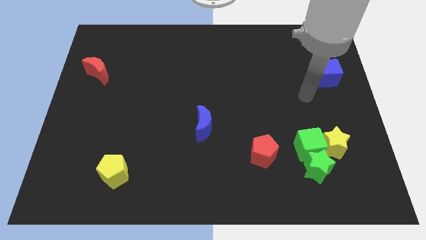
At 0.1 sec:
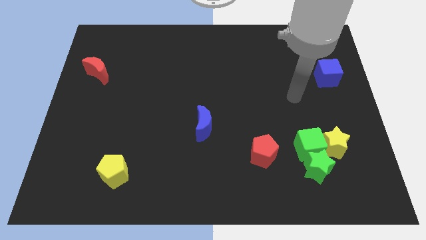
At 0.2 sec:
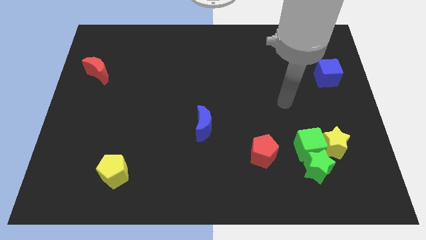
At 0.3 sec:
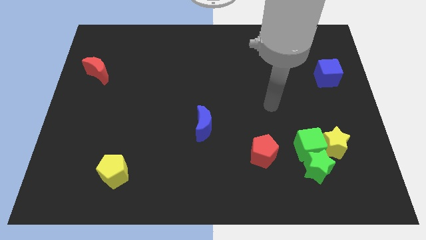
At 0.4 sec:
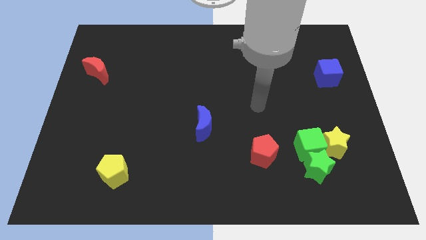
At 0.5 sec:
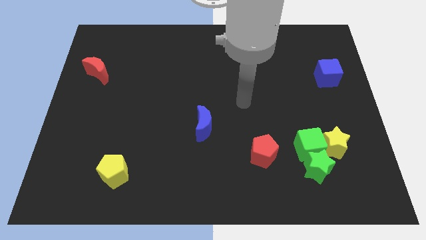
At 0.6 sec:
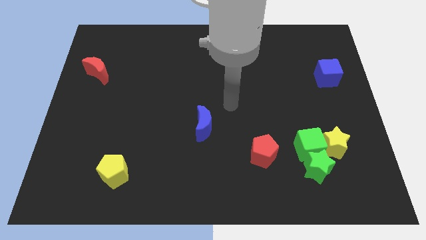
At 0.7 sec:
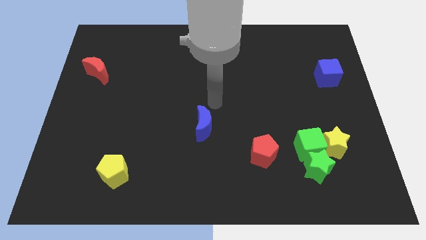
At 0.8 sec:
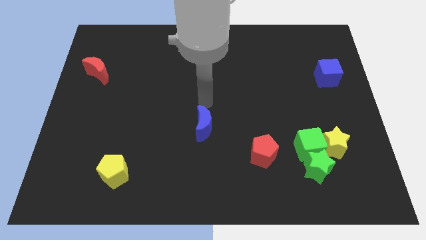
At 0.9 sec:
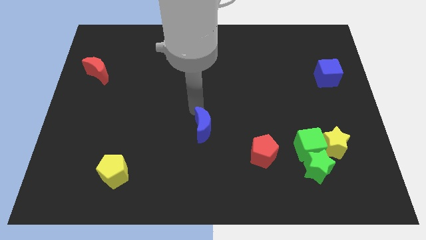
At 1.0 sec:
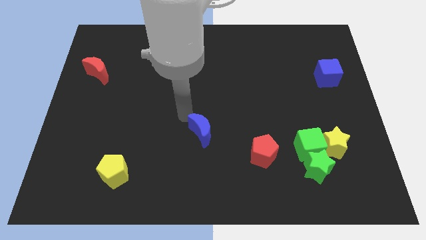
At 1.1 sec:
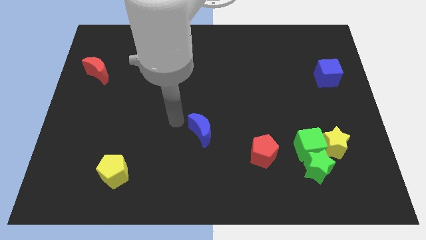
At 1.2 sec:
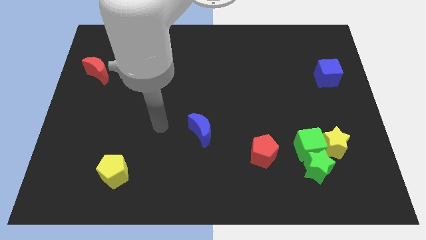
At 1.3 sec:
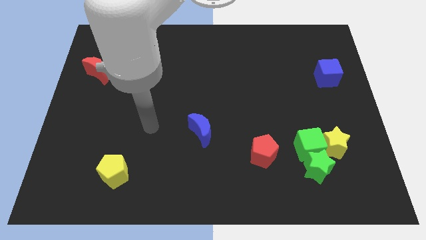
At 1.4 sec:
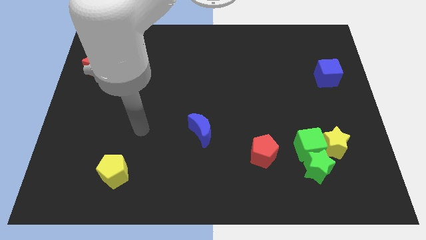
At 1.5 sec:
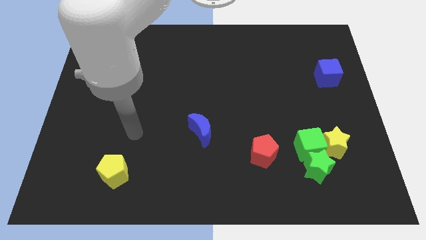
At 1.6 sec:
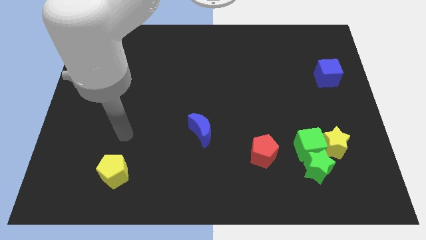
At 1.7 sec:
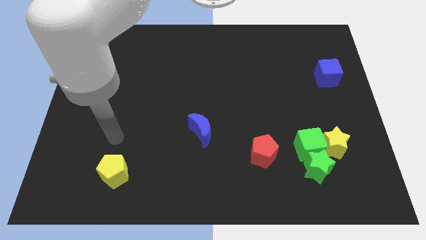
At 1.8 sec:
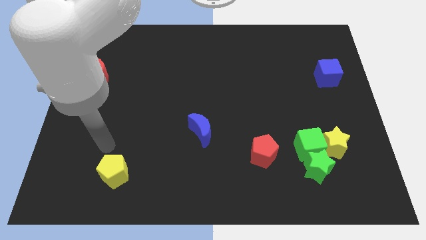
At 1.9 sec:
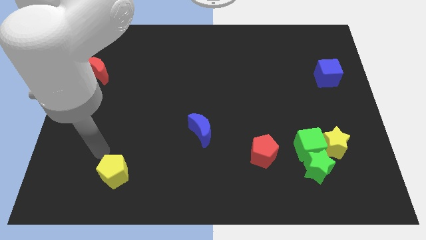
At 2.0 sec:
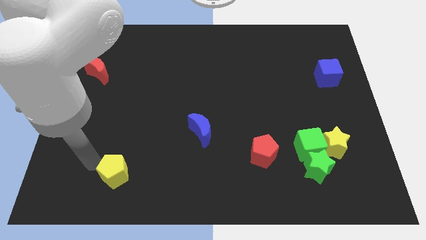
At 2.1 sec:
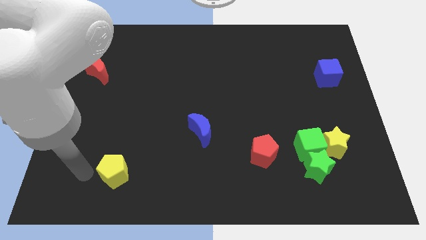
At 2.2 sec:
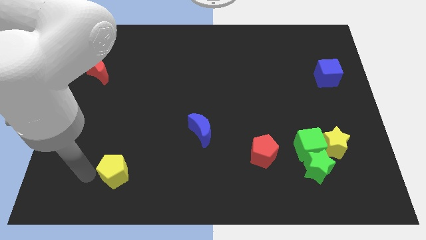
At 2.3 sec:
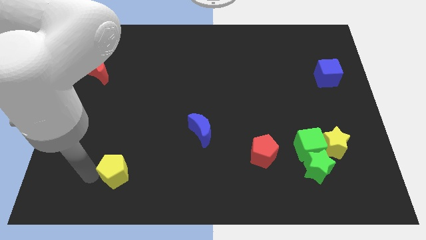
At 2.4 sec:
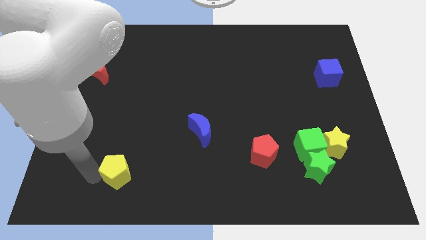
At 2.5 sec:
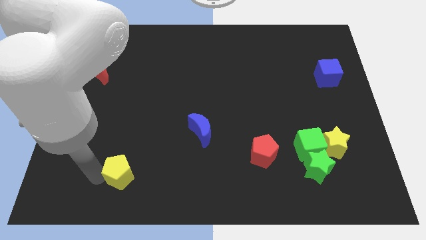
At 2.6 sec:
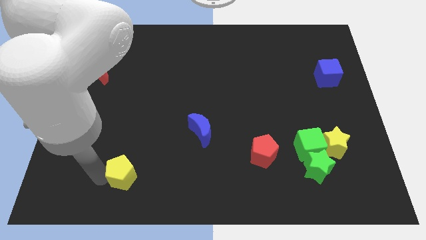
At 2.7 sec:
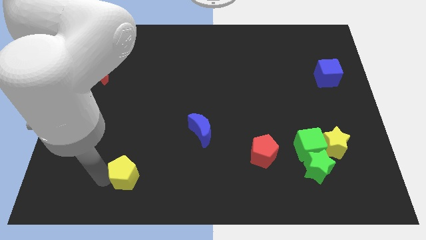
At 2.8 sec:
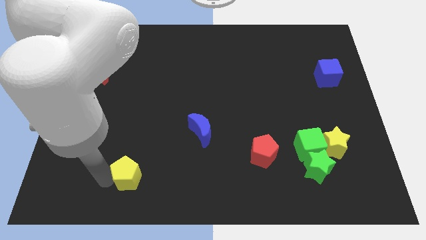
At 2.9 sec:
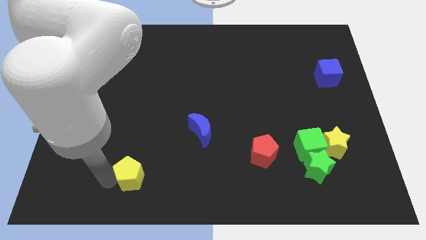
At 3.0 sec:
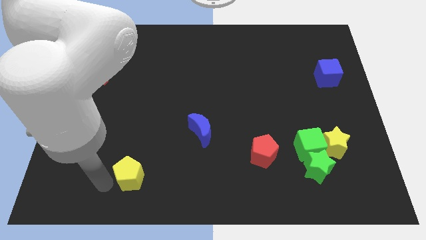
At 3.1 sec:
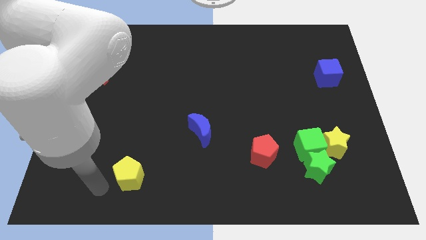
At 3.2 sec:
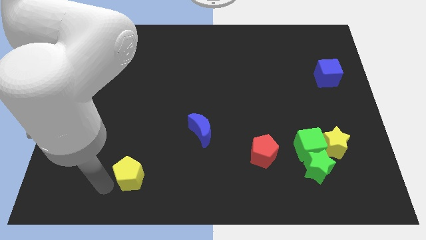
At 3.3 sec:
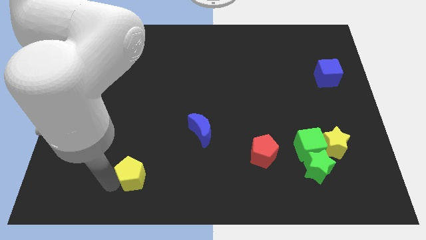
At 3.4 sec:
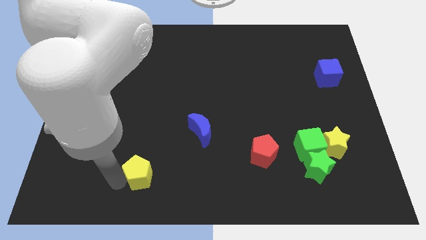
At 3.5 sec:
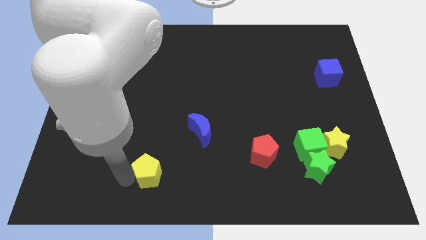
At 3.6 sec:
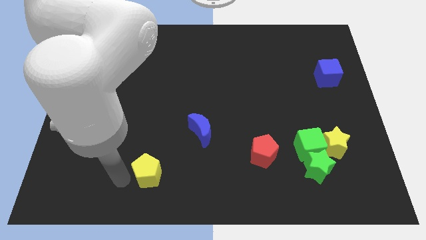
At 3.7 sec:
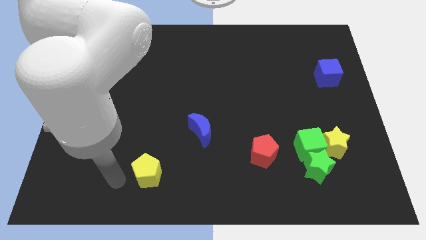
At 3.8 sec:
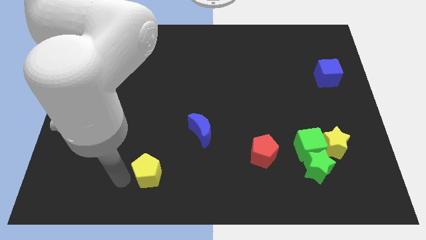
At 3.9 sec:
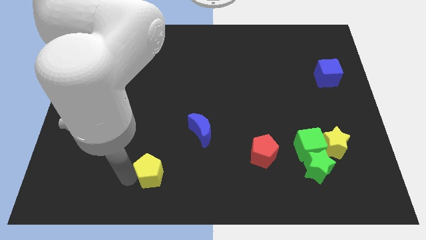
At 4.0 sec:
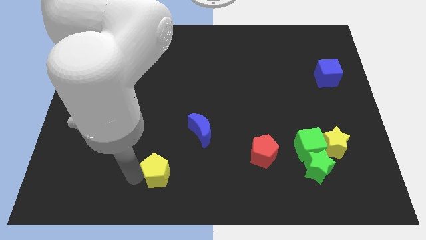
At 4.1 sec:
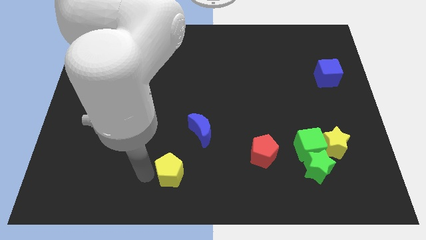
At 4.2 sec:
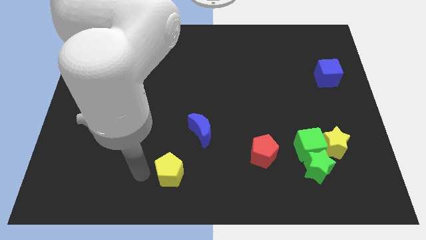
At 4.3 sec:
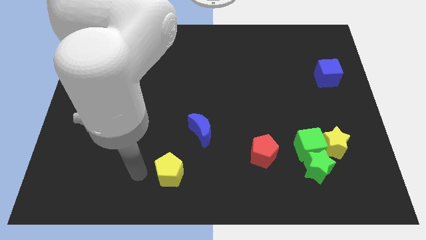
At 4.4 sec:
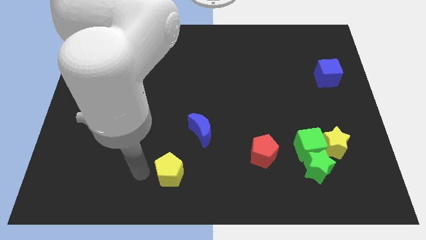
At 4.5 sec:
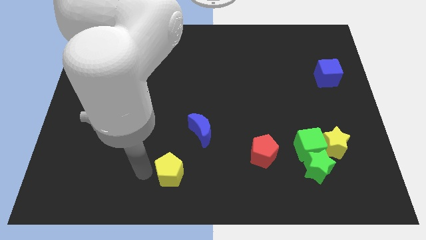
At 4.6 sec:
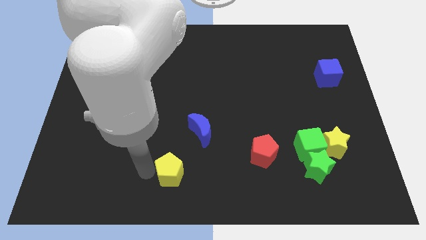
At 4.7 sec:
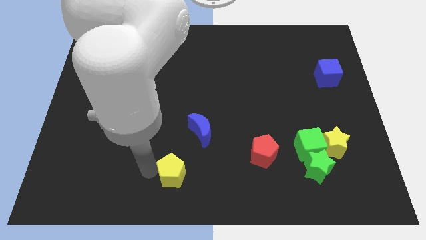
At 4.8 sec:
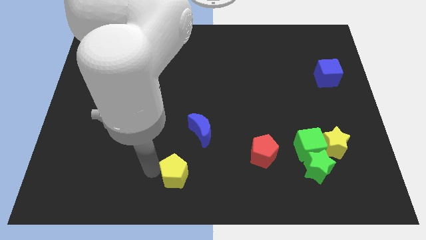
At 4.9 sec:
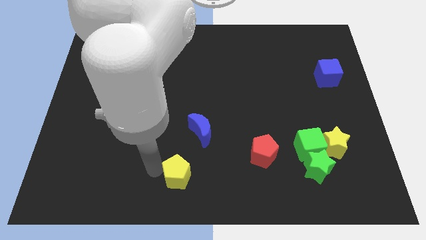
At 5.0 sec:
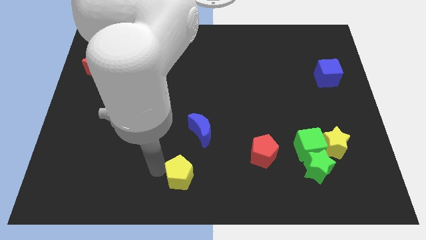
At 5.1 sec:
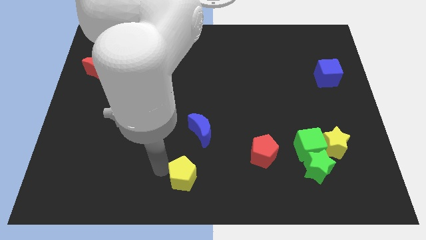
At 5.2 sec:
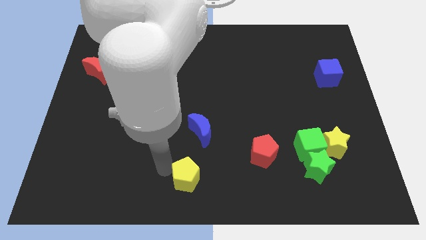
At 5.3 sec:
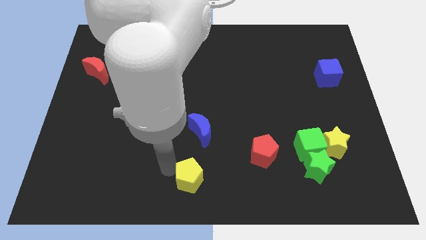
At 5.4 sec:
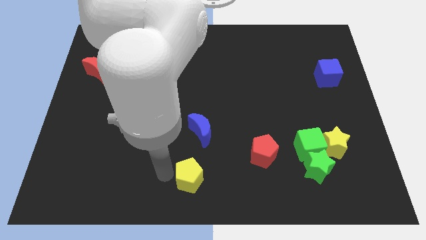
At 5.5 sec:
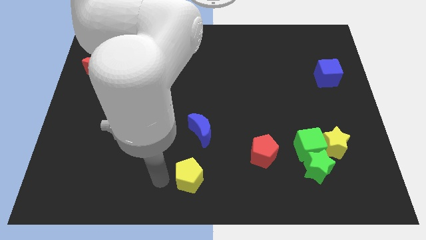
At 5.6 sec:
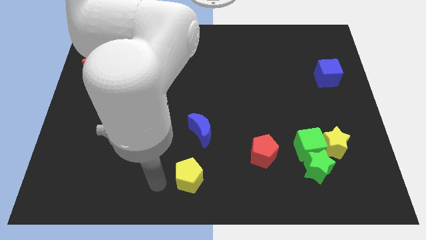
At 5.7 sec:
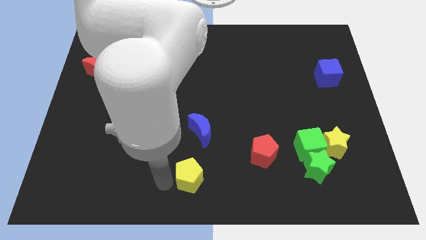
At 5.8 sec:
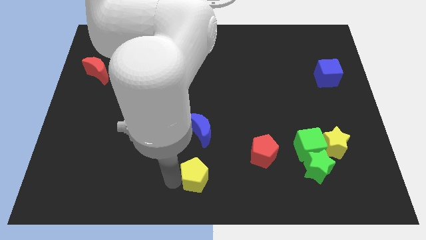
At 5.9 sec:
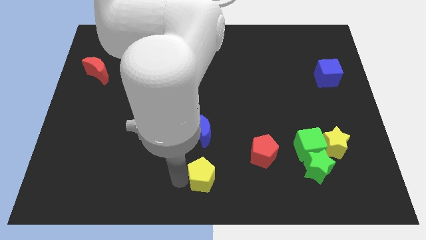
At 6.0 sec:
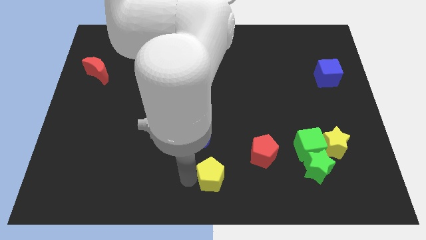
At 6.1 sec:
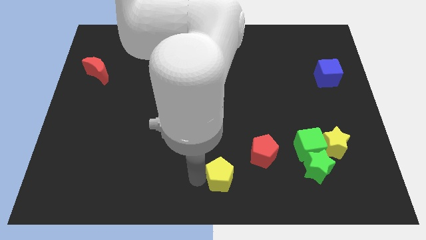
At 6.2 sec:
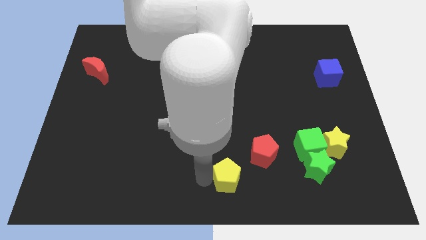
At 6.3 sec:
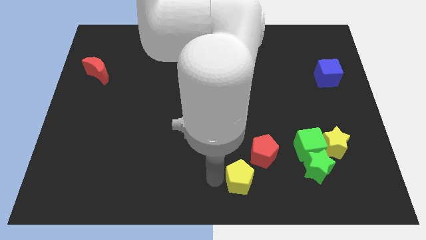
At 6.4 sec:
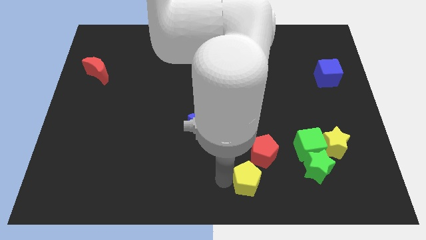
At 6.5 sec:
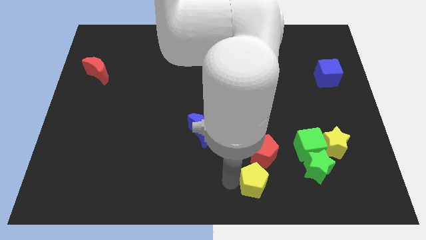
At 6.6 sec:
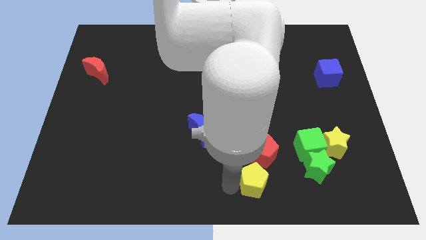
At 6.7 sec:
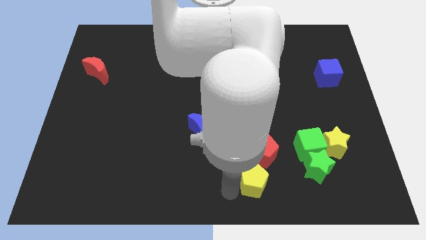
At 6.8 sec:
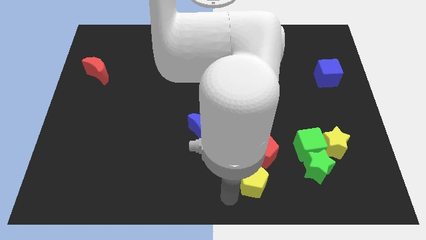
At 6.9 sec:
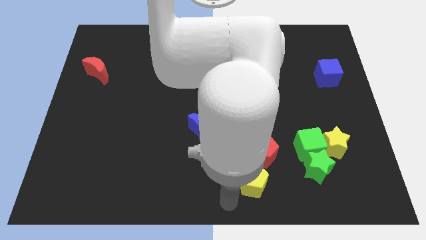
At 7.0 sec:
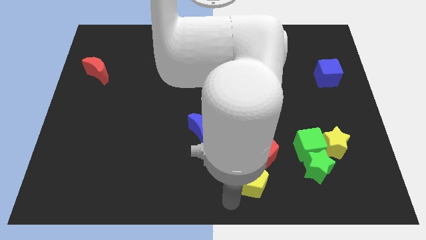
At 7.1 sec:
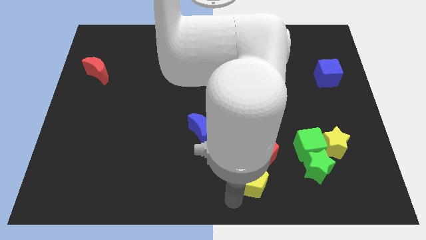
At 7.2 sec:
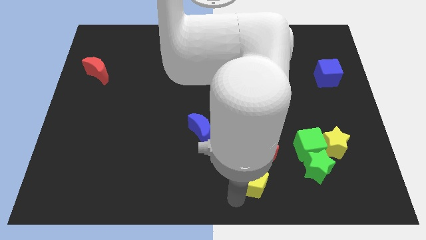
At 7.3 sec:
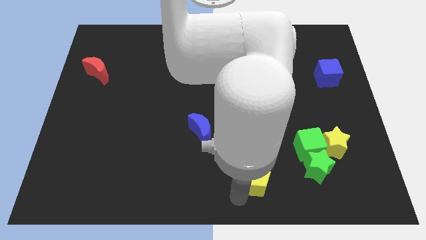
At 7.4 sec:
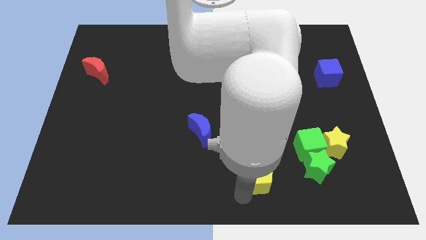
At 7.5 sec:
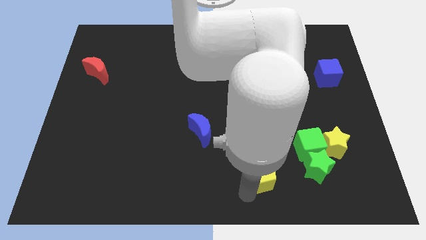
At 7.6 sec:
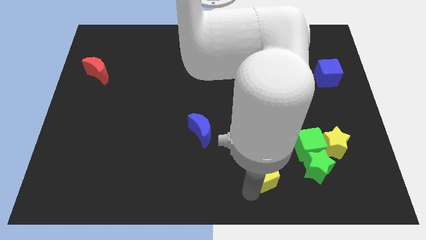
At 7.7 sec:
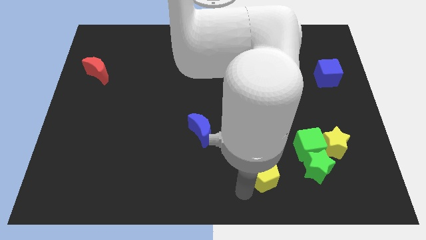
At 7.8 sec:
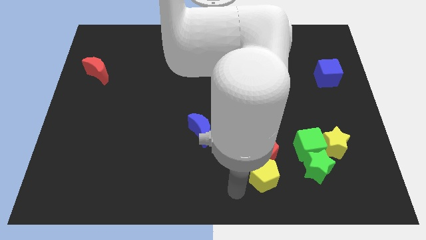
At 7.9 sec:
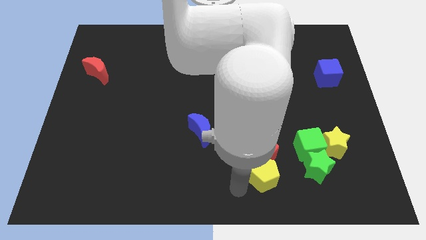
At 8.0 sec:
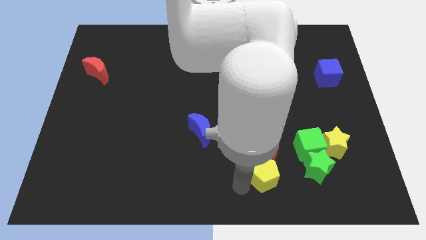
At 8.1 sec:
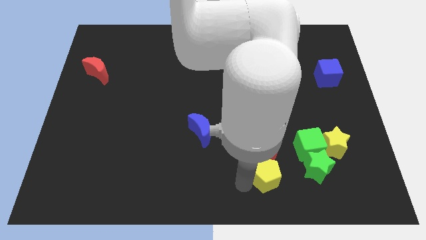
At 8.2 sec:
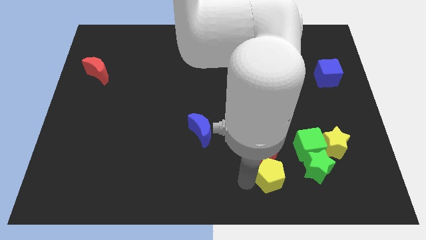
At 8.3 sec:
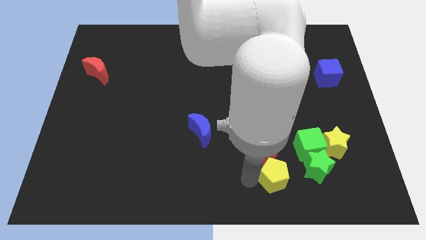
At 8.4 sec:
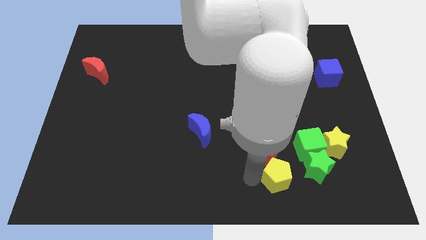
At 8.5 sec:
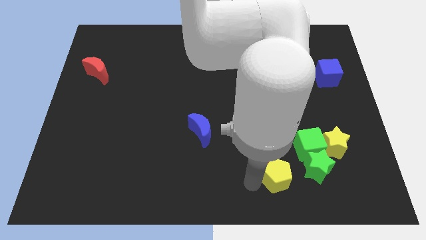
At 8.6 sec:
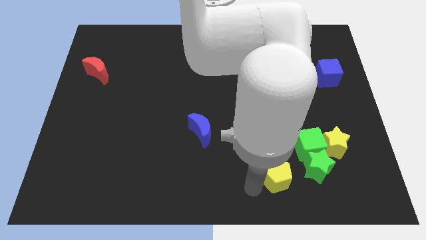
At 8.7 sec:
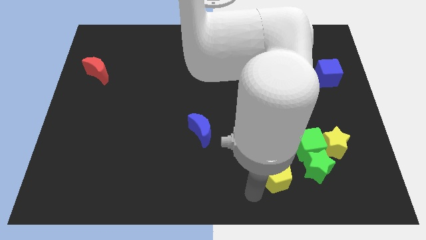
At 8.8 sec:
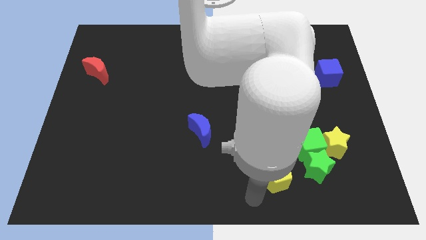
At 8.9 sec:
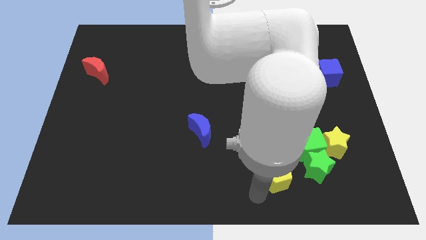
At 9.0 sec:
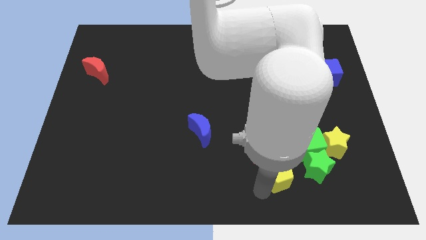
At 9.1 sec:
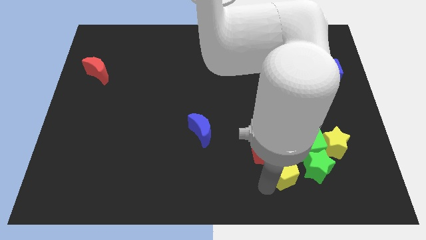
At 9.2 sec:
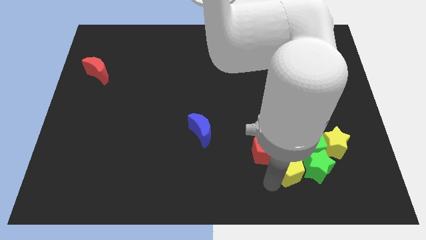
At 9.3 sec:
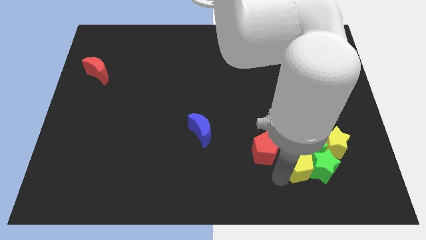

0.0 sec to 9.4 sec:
push the yellow pentagon to the green cube
